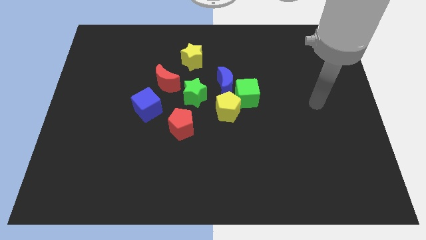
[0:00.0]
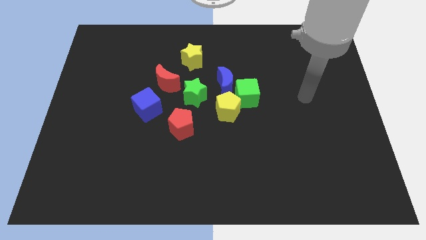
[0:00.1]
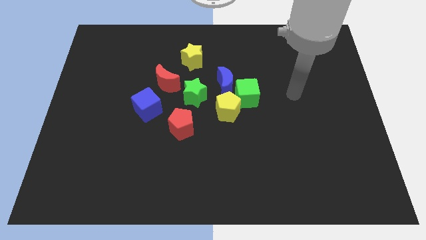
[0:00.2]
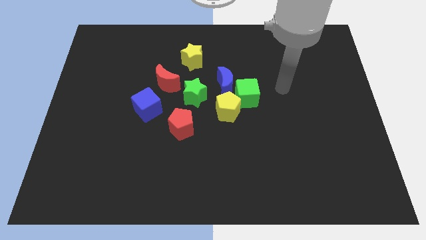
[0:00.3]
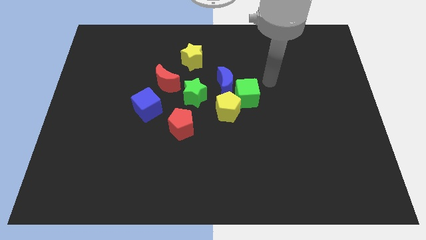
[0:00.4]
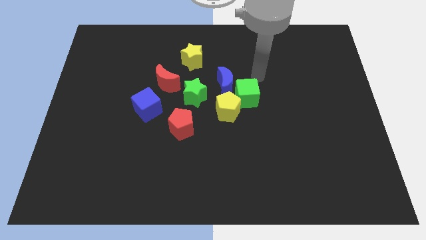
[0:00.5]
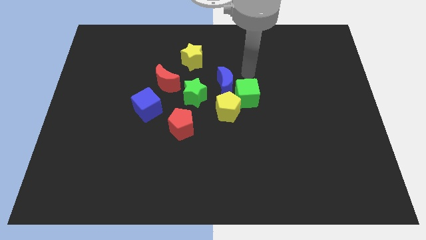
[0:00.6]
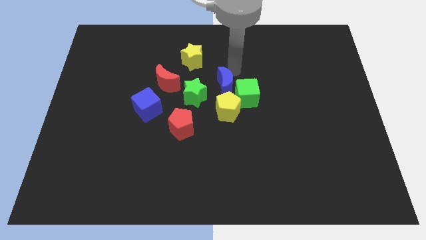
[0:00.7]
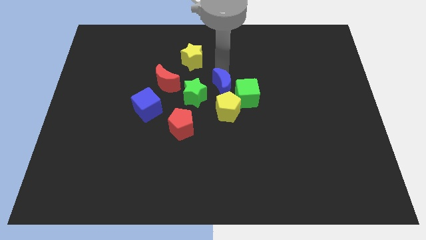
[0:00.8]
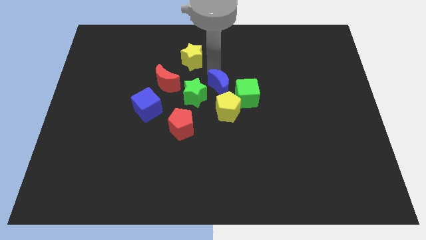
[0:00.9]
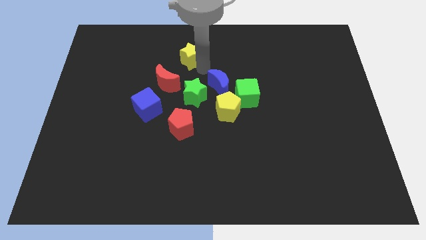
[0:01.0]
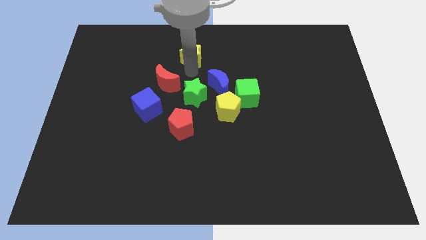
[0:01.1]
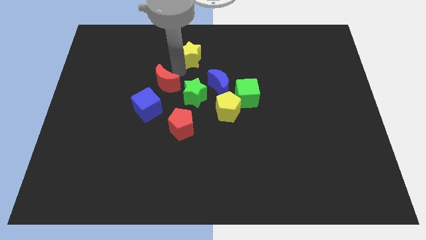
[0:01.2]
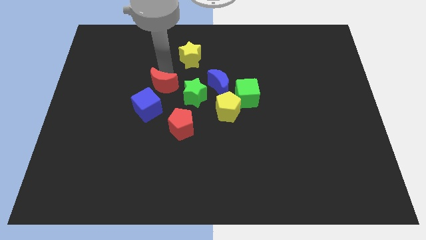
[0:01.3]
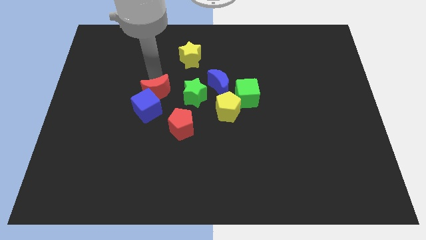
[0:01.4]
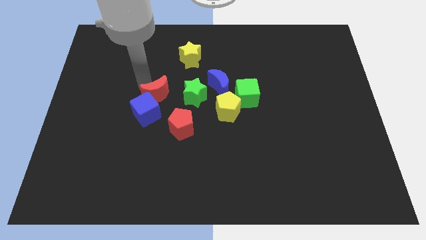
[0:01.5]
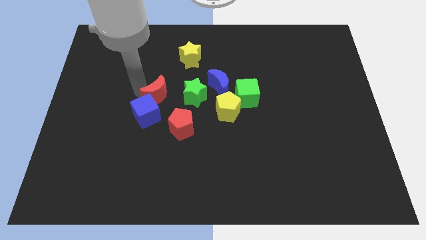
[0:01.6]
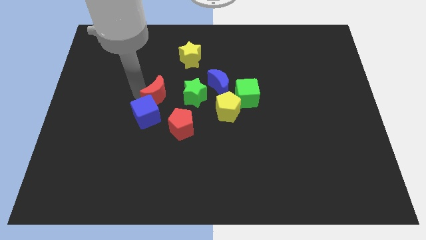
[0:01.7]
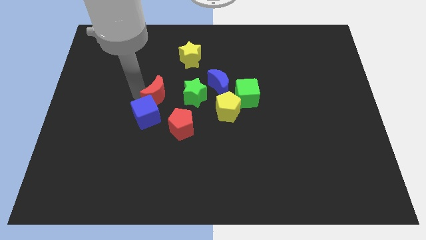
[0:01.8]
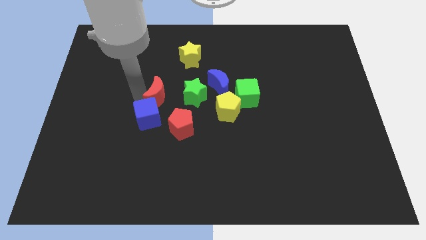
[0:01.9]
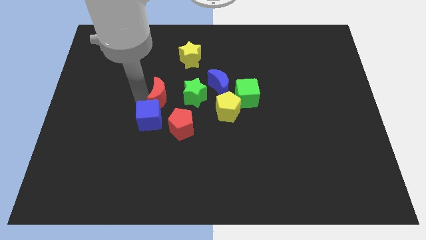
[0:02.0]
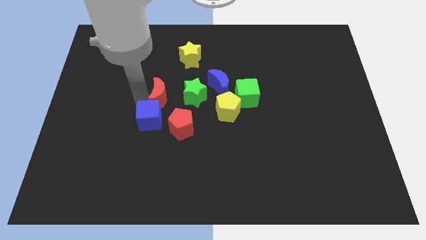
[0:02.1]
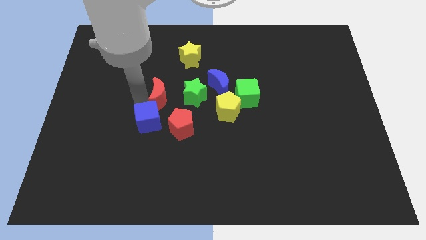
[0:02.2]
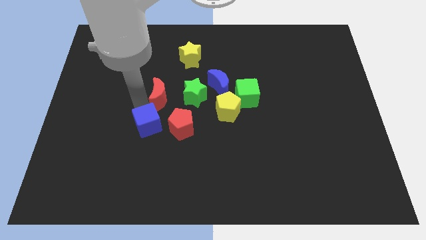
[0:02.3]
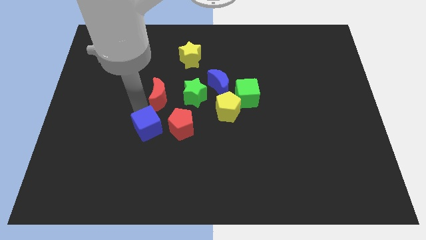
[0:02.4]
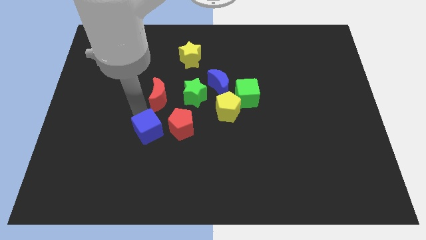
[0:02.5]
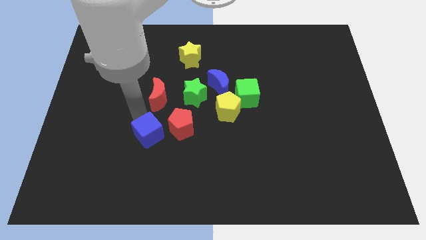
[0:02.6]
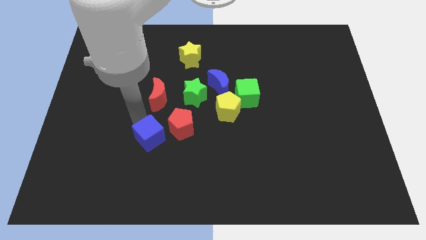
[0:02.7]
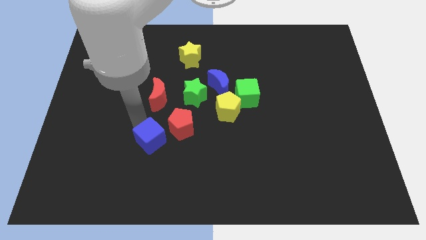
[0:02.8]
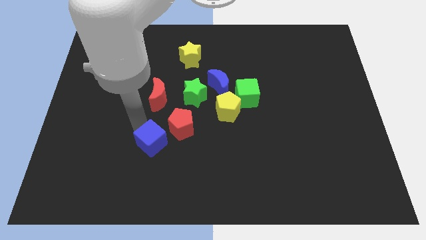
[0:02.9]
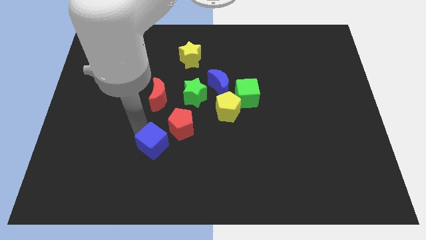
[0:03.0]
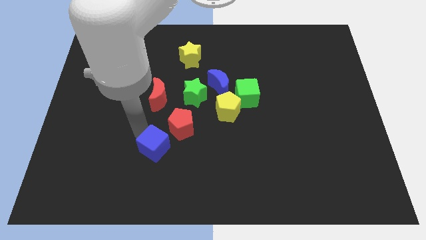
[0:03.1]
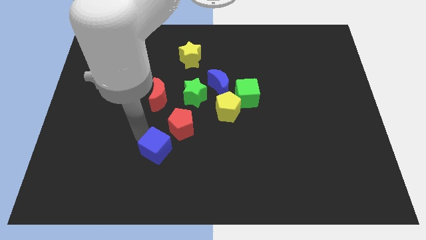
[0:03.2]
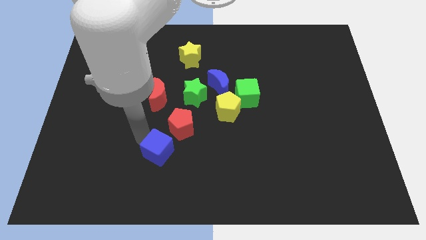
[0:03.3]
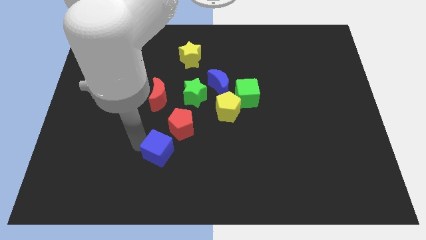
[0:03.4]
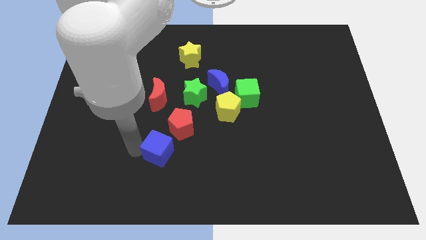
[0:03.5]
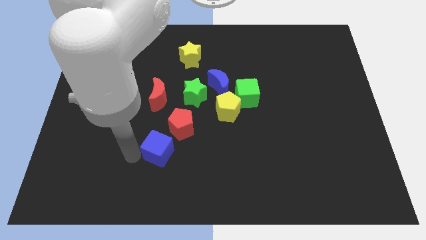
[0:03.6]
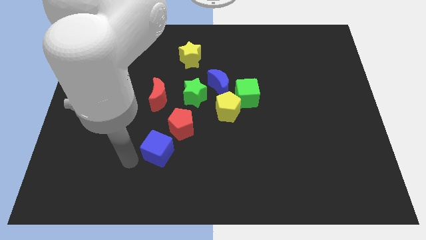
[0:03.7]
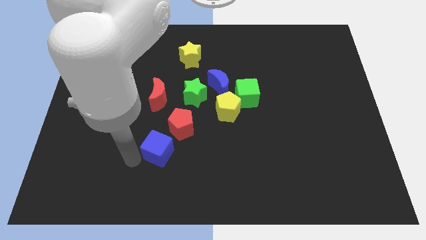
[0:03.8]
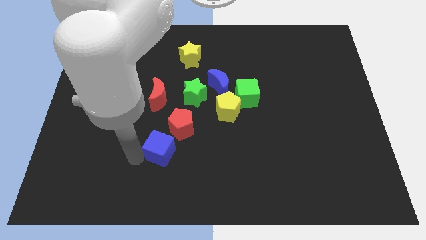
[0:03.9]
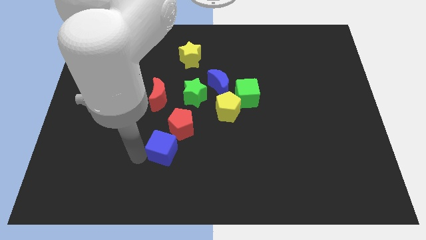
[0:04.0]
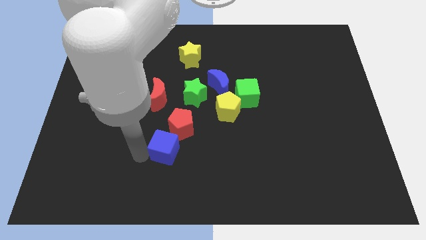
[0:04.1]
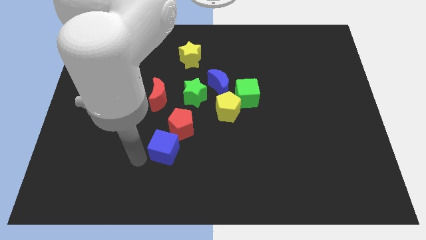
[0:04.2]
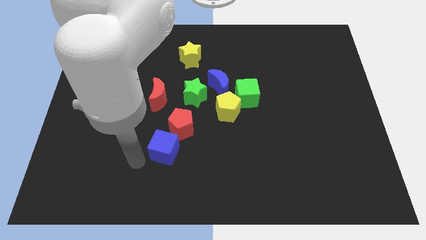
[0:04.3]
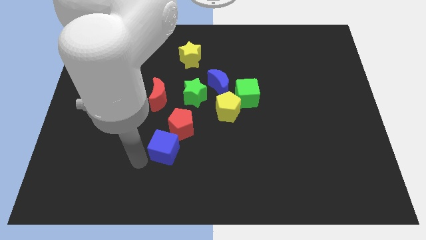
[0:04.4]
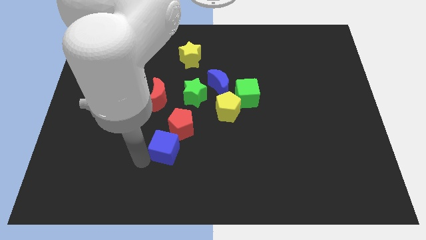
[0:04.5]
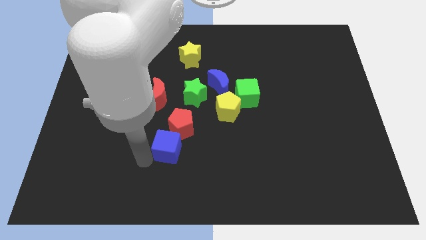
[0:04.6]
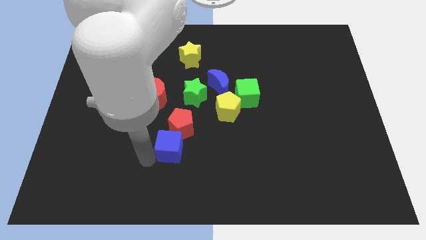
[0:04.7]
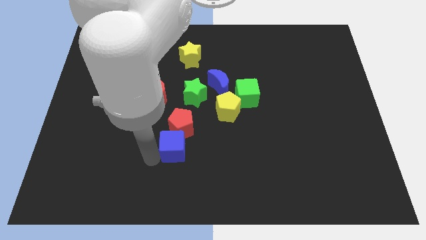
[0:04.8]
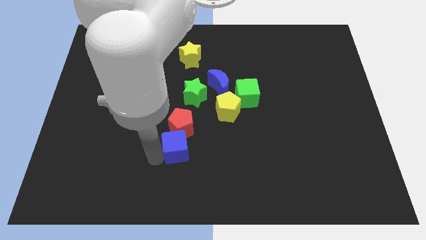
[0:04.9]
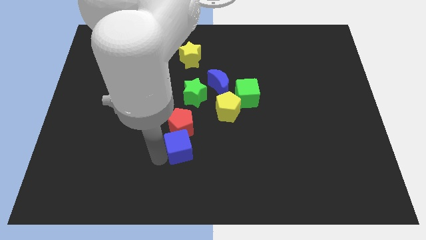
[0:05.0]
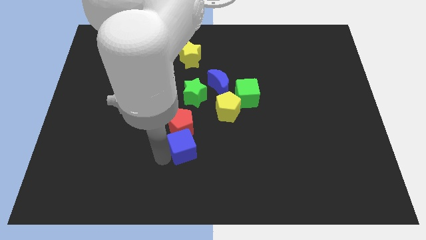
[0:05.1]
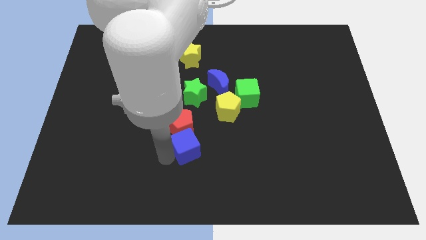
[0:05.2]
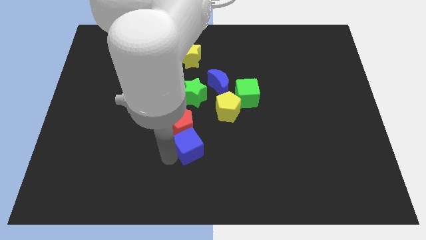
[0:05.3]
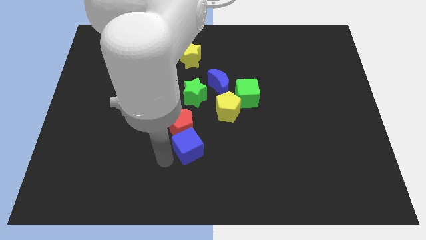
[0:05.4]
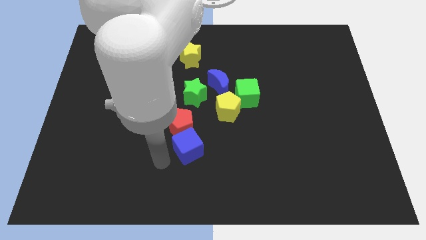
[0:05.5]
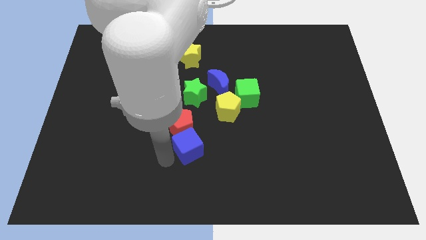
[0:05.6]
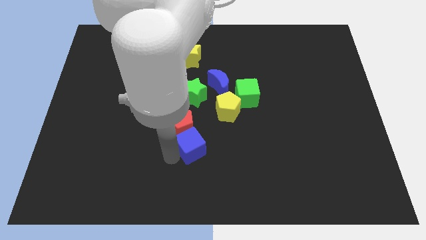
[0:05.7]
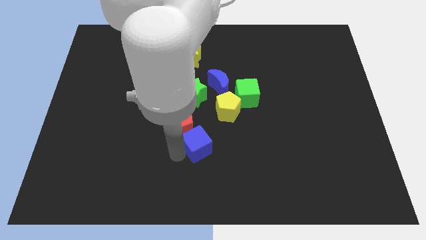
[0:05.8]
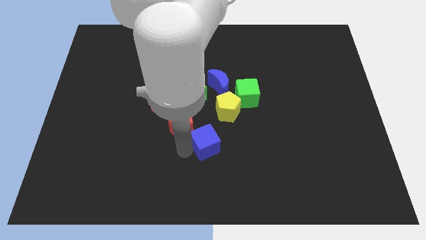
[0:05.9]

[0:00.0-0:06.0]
push the blue cube to the center
